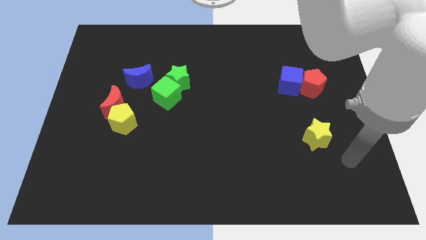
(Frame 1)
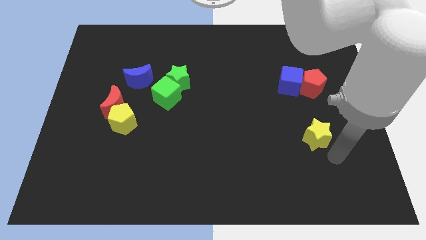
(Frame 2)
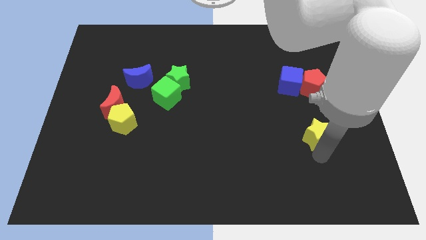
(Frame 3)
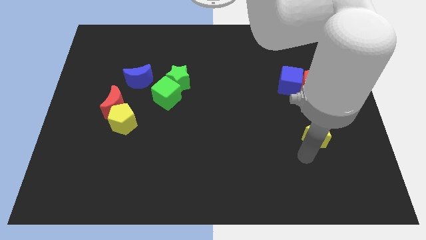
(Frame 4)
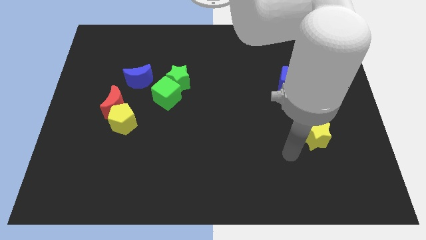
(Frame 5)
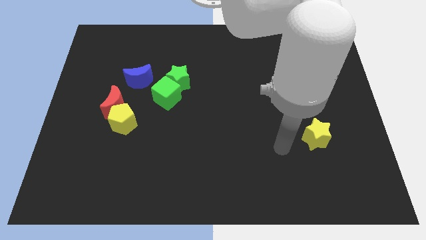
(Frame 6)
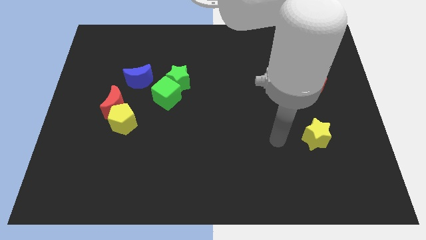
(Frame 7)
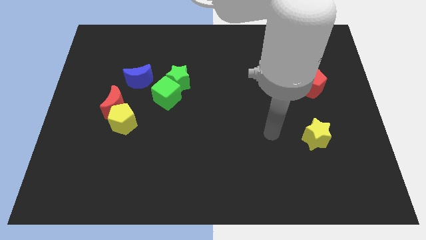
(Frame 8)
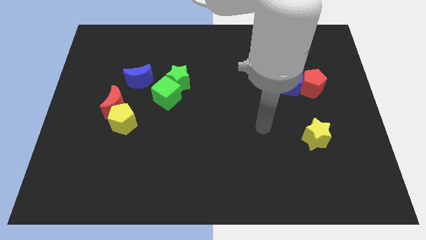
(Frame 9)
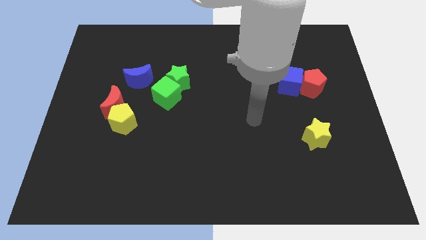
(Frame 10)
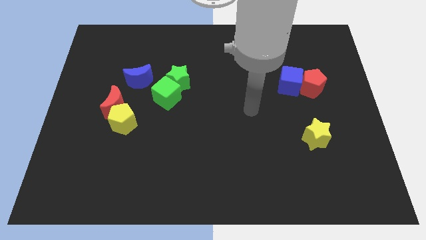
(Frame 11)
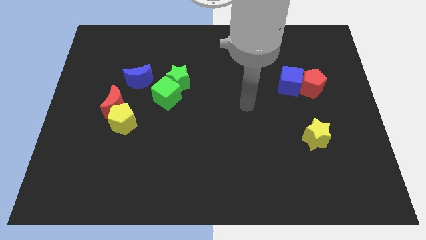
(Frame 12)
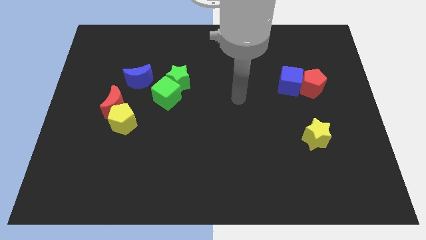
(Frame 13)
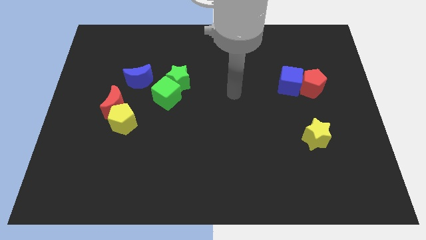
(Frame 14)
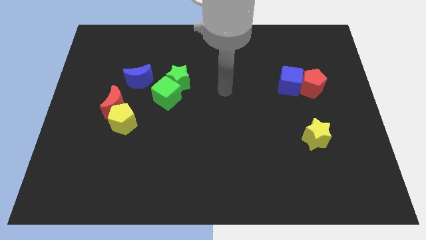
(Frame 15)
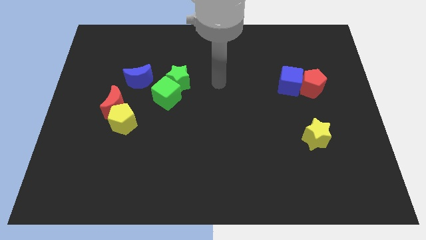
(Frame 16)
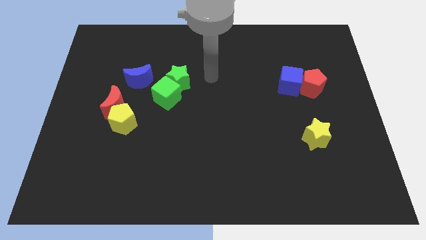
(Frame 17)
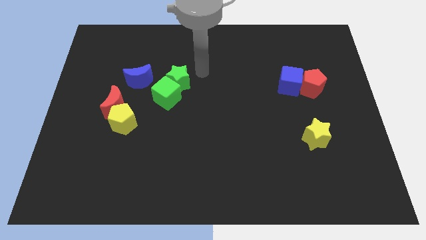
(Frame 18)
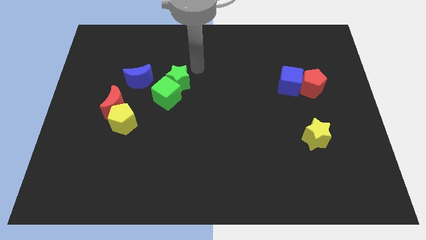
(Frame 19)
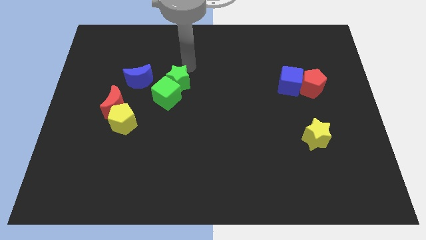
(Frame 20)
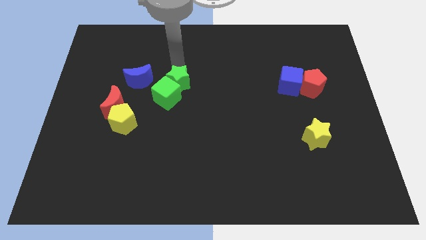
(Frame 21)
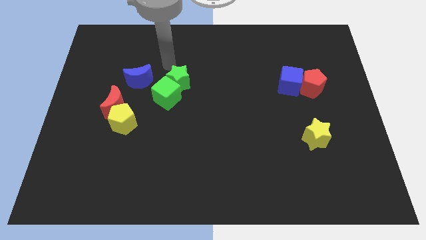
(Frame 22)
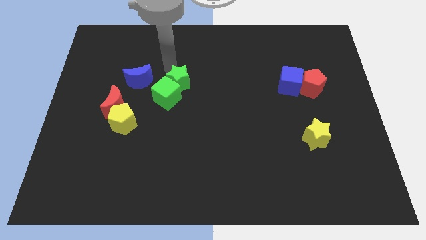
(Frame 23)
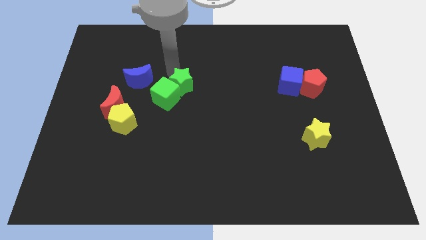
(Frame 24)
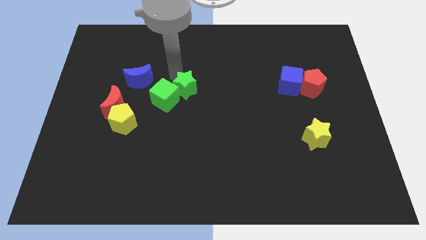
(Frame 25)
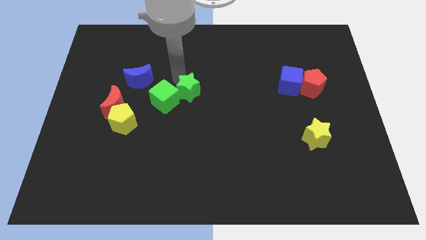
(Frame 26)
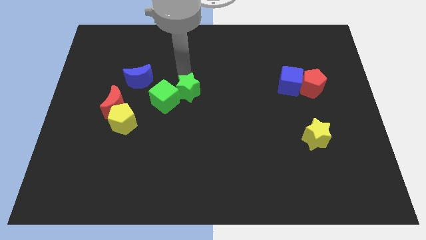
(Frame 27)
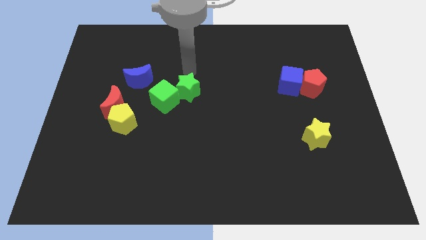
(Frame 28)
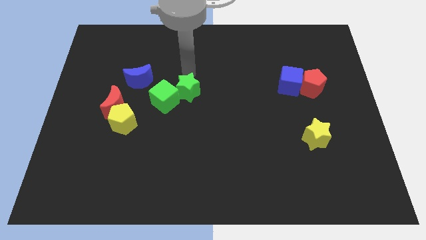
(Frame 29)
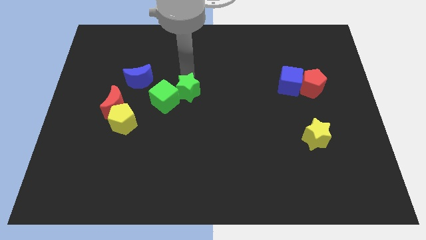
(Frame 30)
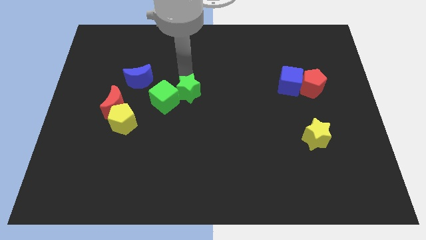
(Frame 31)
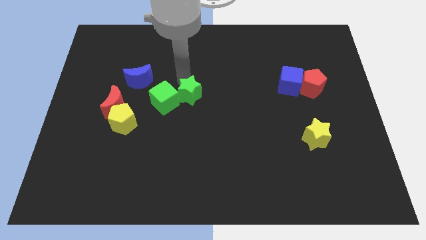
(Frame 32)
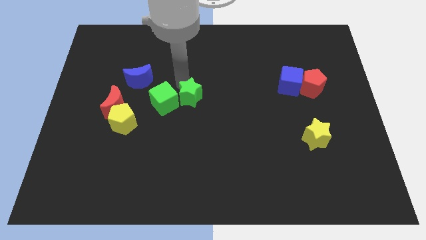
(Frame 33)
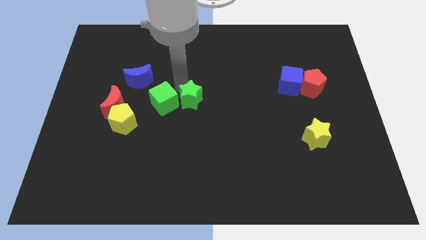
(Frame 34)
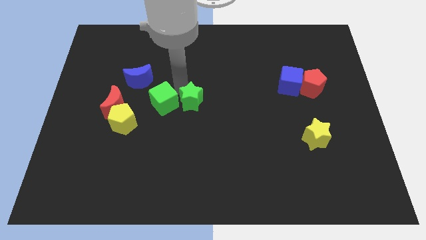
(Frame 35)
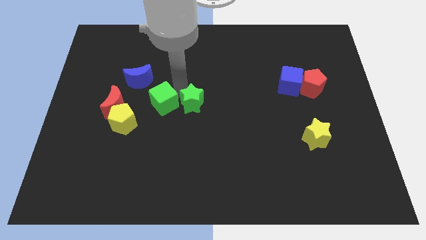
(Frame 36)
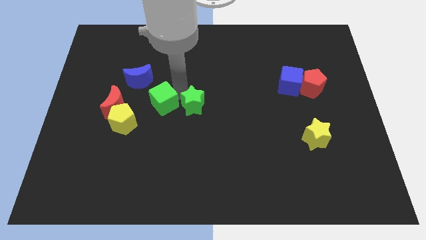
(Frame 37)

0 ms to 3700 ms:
slightly push the green star downwards

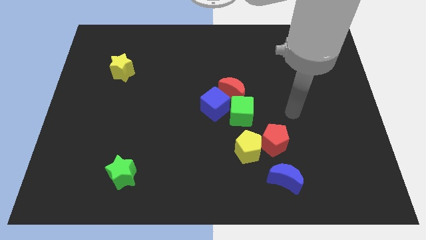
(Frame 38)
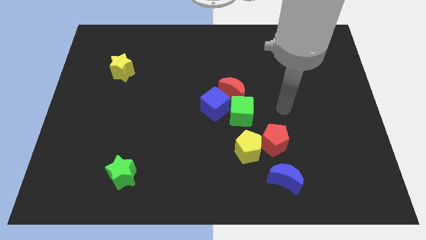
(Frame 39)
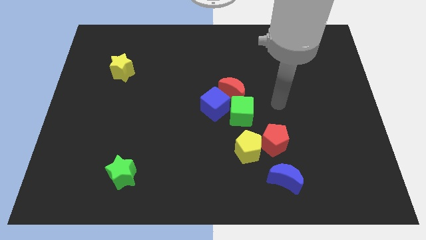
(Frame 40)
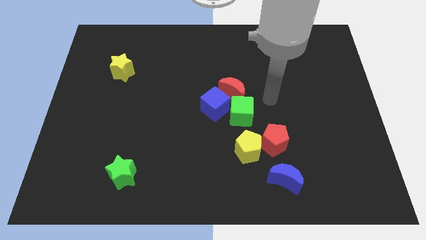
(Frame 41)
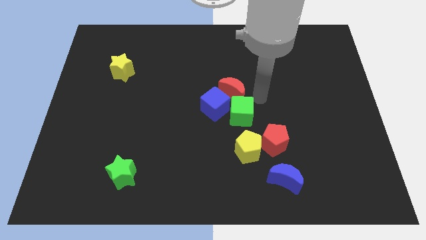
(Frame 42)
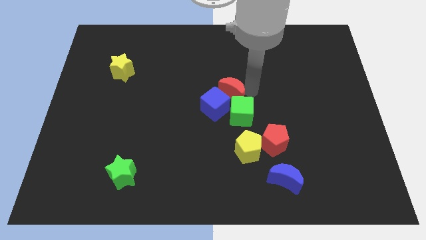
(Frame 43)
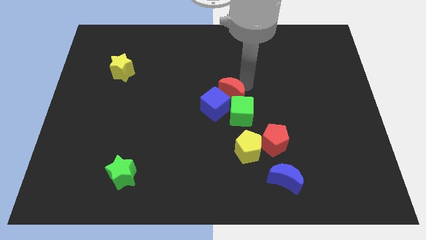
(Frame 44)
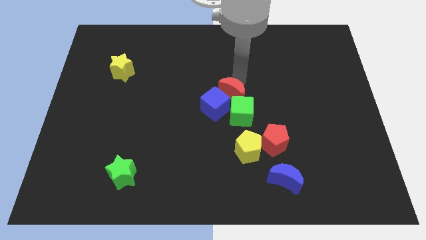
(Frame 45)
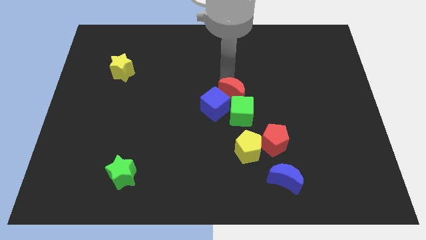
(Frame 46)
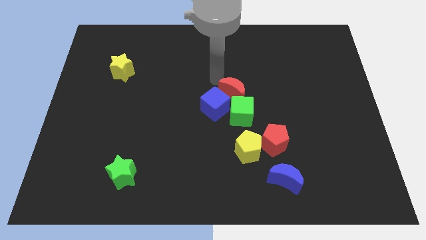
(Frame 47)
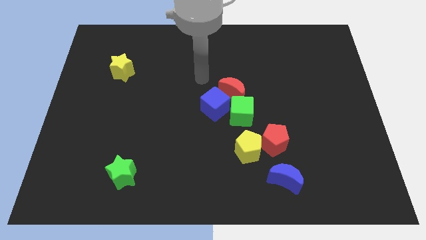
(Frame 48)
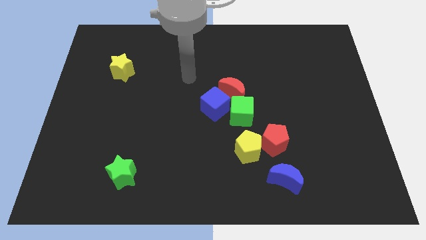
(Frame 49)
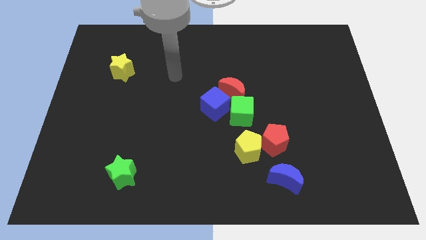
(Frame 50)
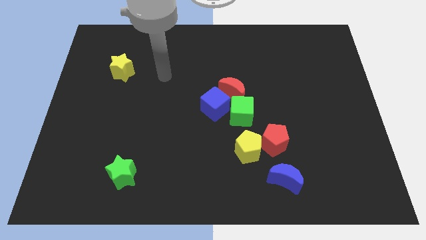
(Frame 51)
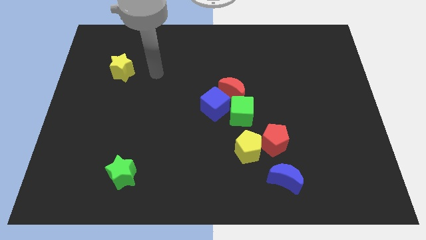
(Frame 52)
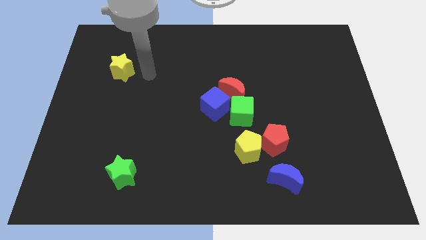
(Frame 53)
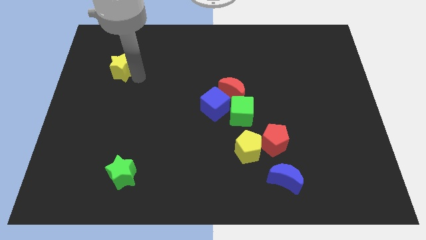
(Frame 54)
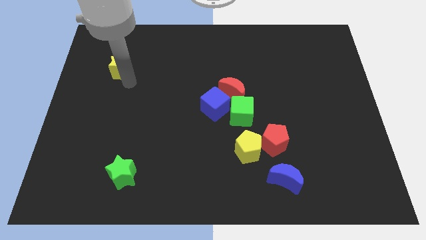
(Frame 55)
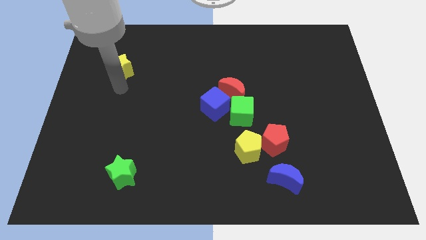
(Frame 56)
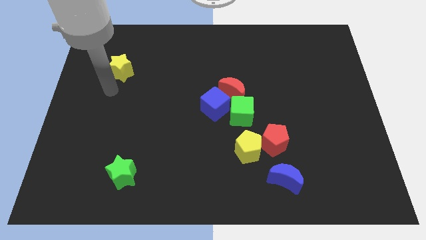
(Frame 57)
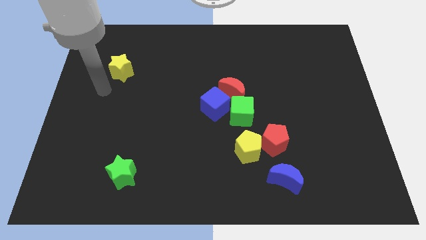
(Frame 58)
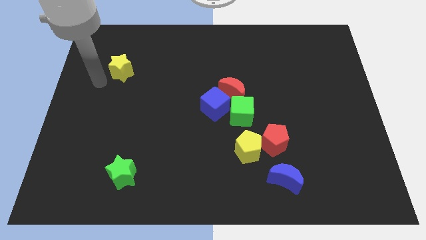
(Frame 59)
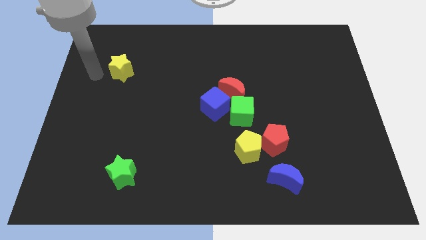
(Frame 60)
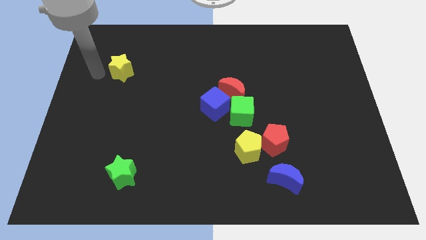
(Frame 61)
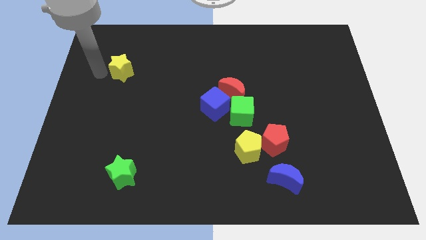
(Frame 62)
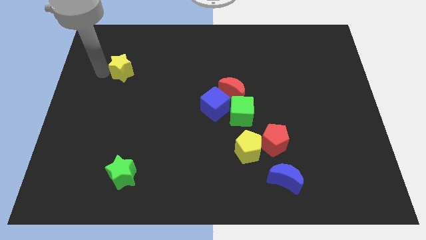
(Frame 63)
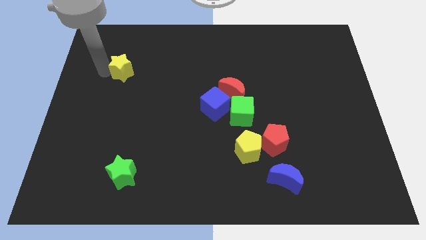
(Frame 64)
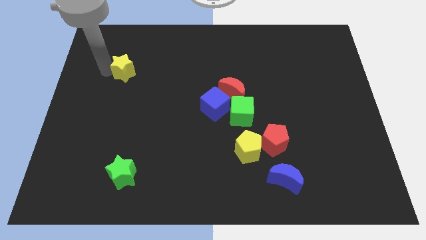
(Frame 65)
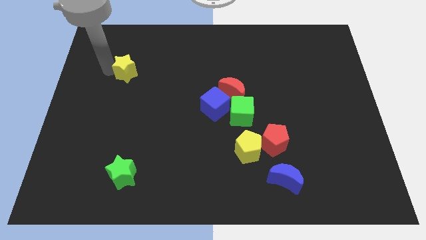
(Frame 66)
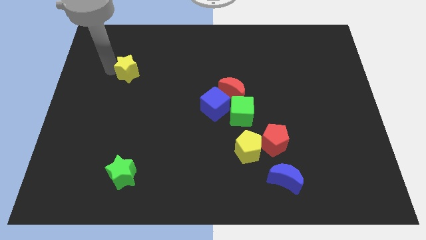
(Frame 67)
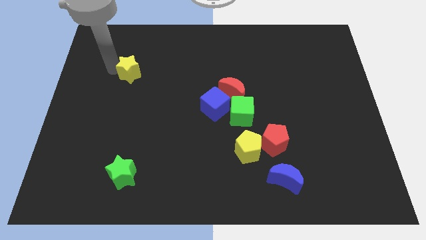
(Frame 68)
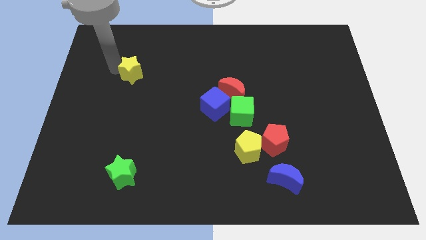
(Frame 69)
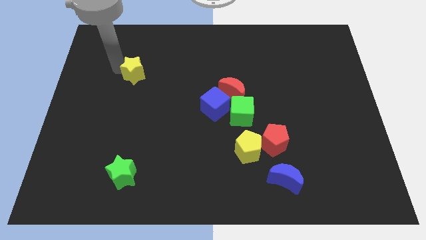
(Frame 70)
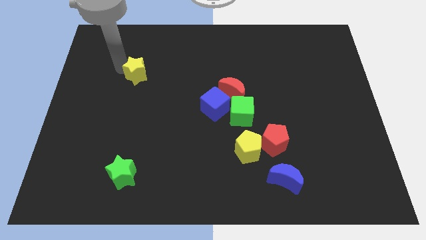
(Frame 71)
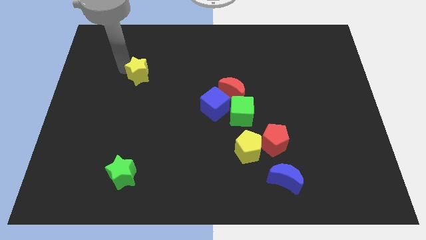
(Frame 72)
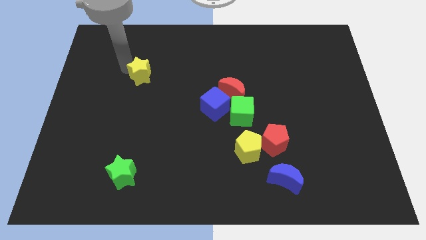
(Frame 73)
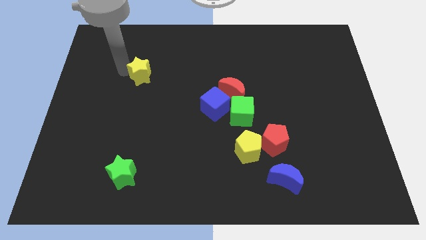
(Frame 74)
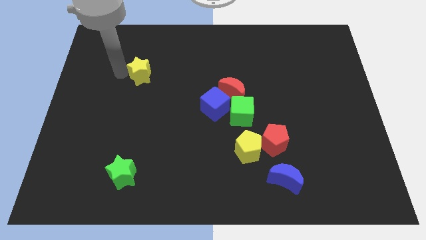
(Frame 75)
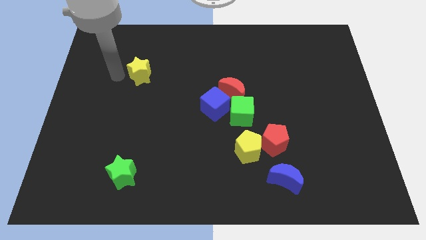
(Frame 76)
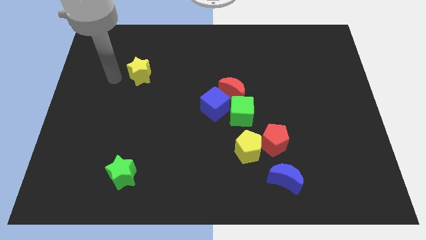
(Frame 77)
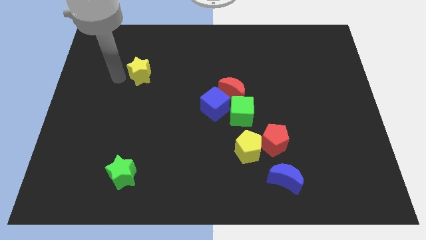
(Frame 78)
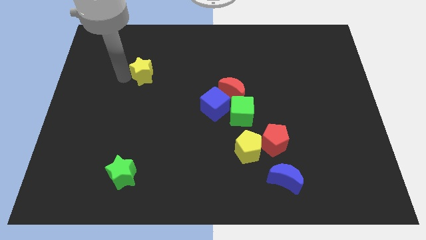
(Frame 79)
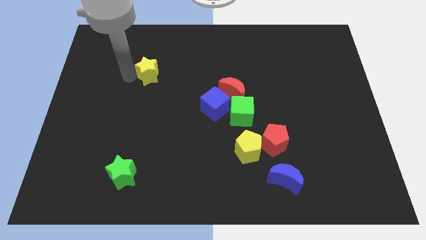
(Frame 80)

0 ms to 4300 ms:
move the yellow star right a little

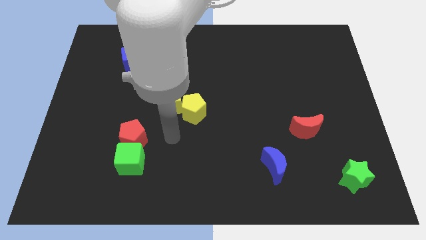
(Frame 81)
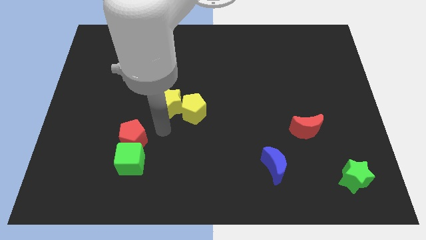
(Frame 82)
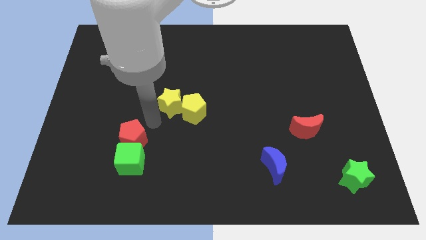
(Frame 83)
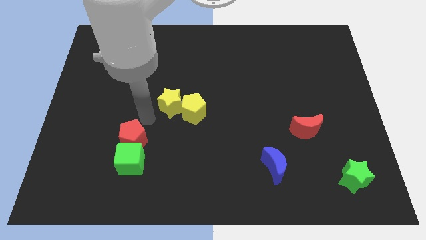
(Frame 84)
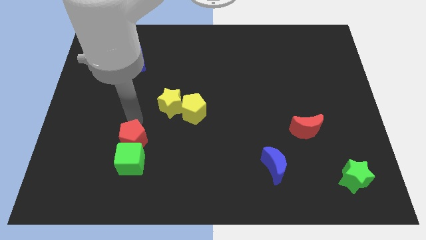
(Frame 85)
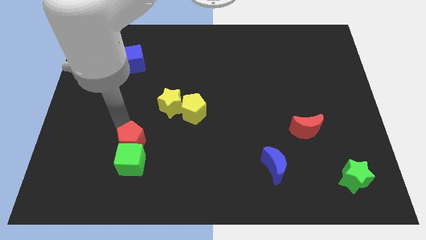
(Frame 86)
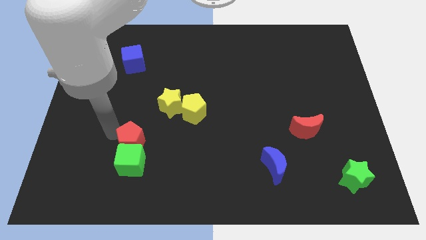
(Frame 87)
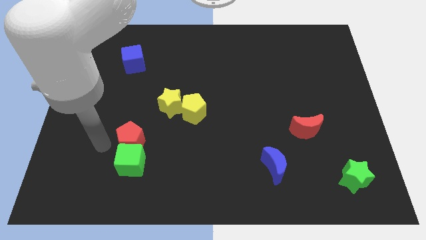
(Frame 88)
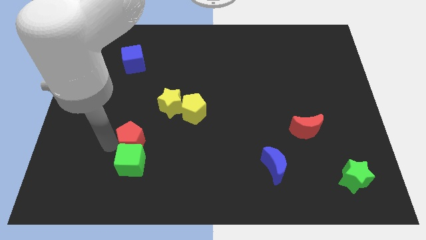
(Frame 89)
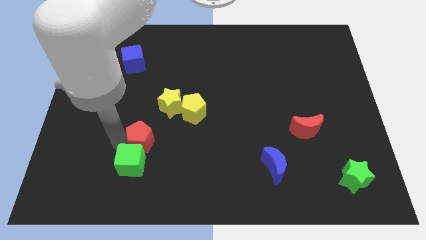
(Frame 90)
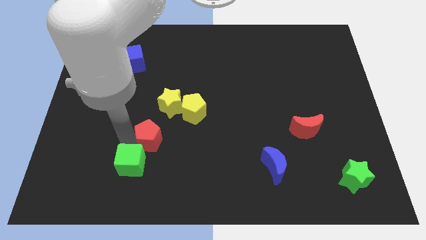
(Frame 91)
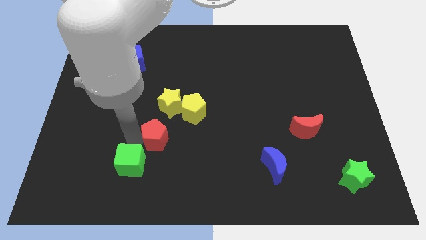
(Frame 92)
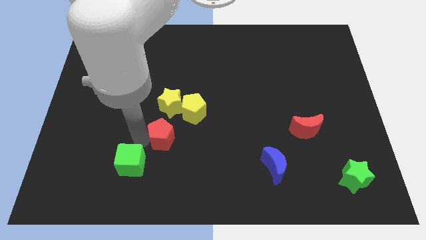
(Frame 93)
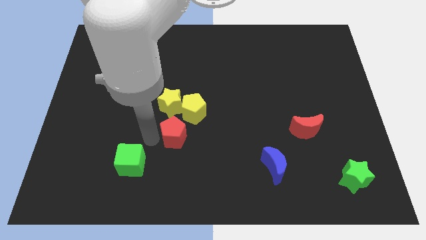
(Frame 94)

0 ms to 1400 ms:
push the red pentagon slightly to the right
